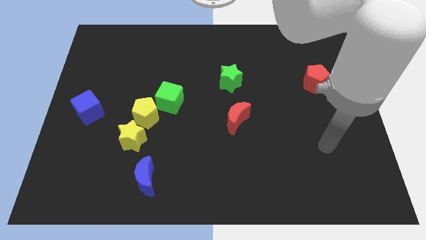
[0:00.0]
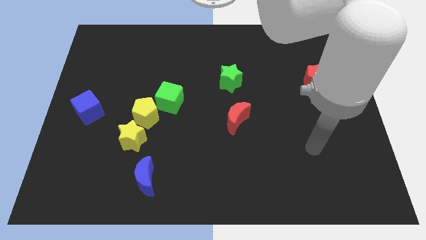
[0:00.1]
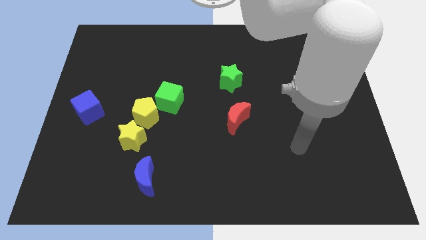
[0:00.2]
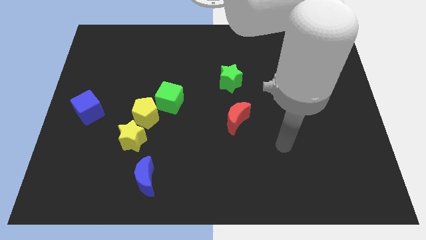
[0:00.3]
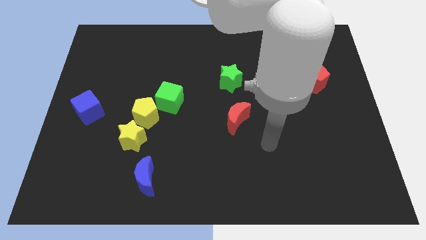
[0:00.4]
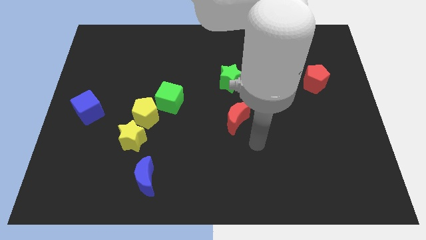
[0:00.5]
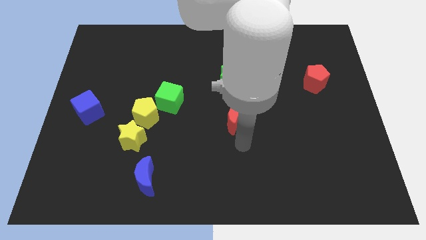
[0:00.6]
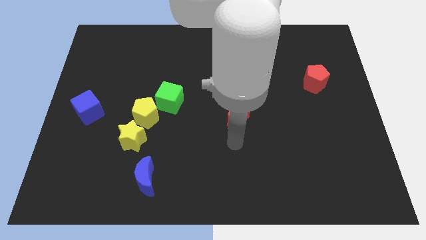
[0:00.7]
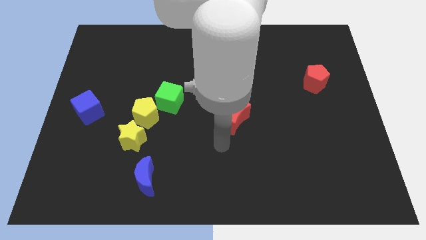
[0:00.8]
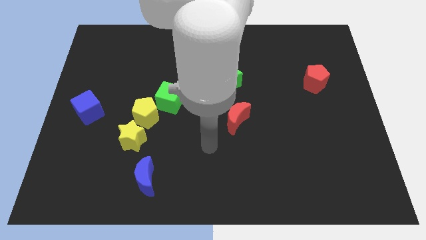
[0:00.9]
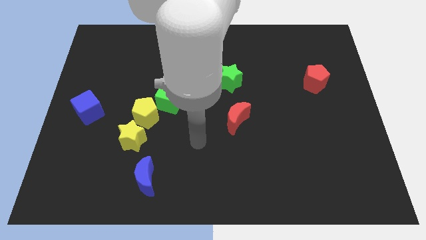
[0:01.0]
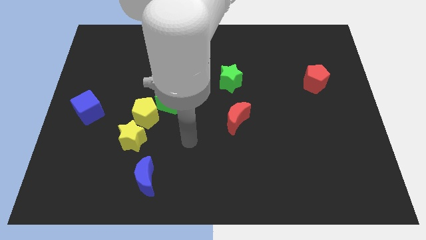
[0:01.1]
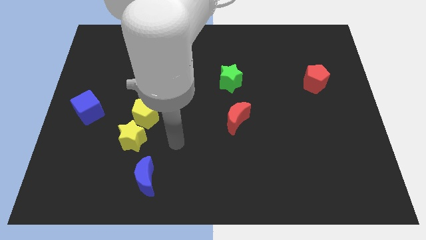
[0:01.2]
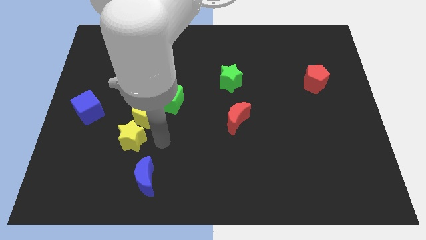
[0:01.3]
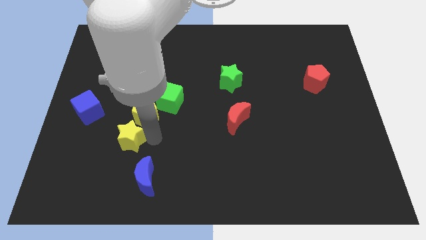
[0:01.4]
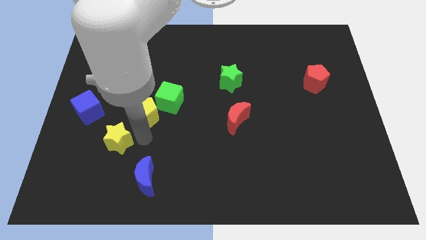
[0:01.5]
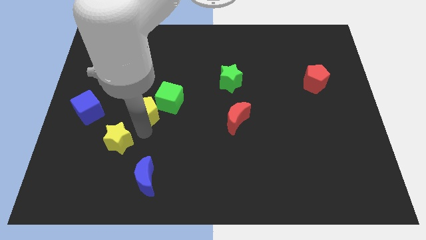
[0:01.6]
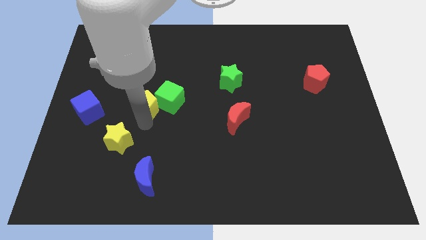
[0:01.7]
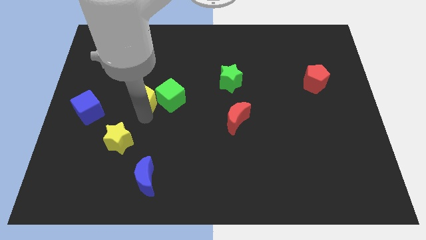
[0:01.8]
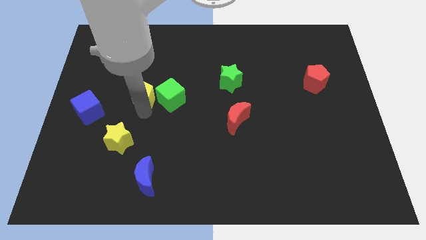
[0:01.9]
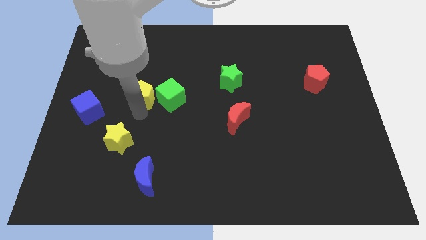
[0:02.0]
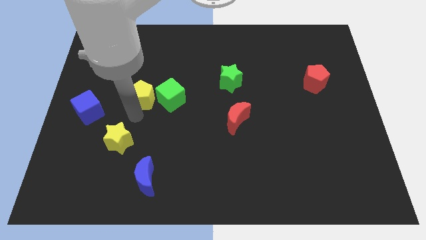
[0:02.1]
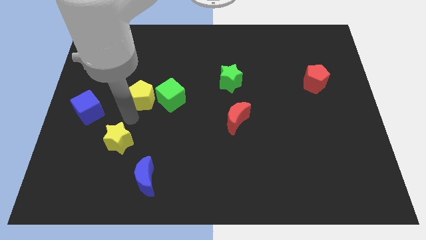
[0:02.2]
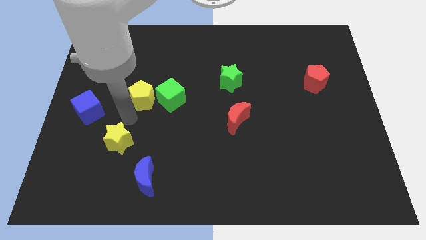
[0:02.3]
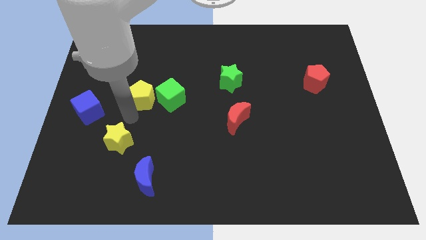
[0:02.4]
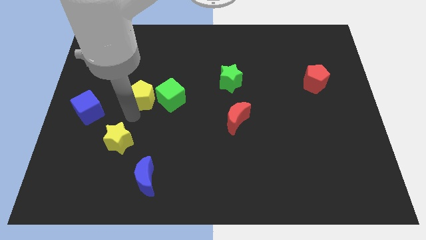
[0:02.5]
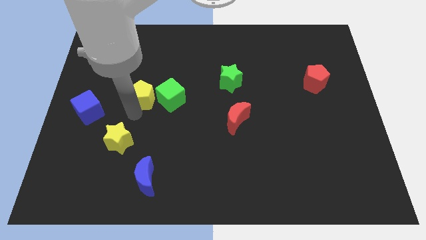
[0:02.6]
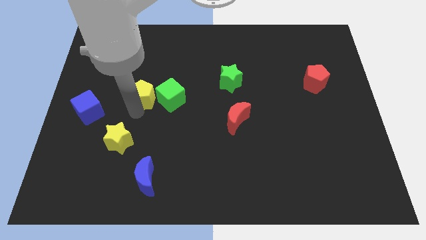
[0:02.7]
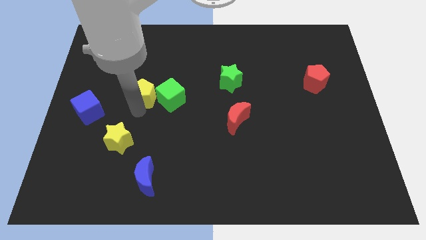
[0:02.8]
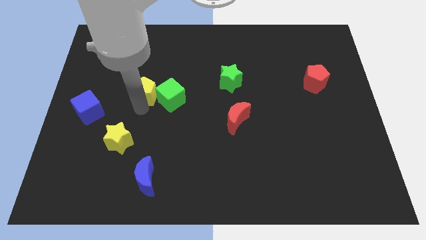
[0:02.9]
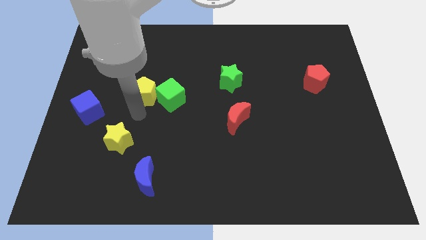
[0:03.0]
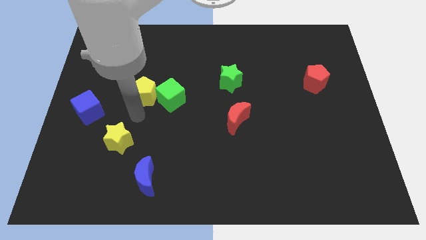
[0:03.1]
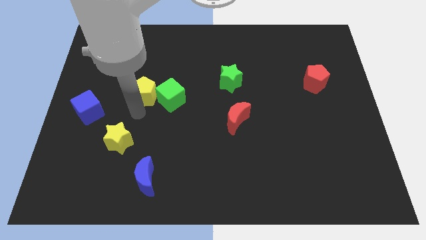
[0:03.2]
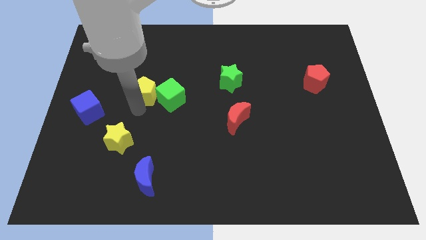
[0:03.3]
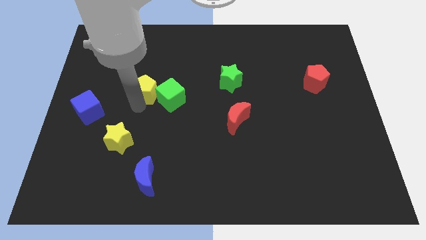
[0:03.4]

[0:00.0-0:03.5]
slide the yellow pentagon a little bit upwards

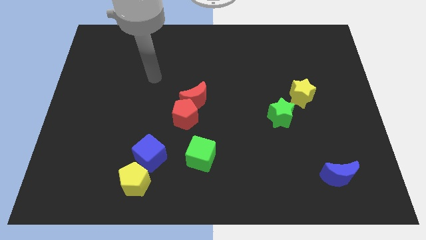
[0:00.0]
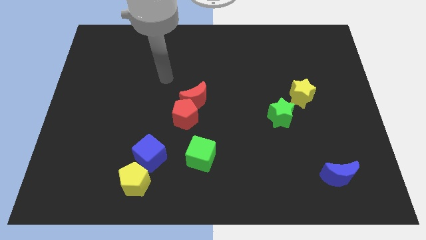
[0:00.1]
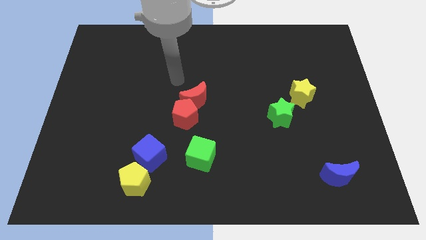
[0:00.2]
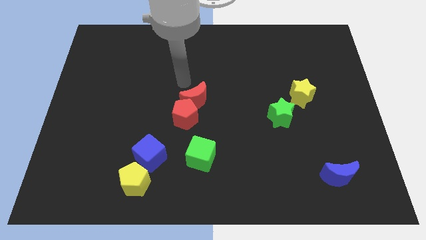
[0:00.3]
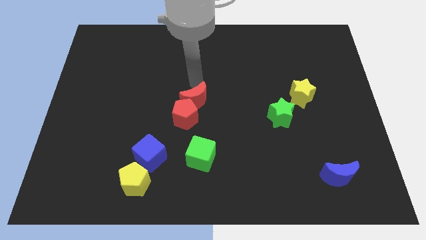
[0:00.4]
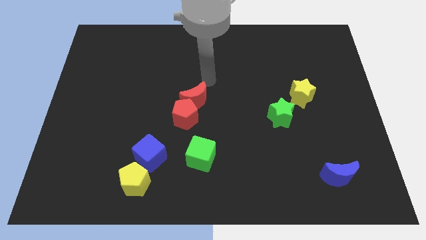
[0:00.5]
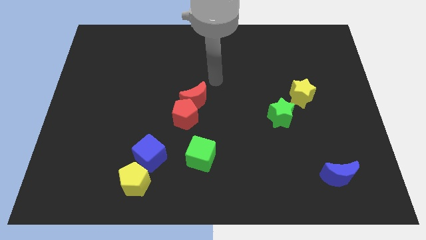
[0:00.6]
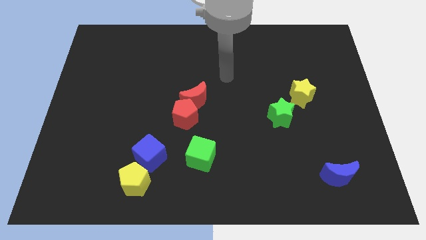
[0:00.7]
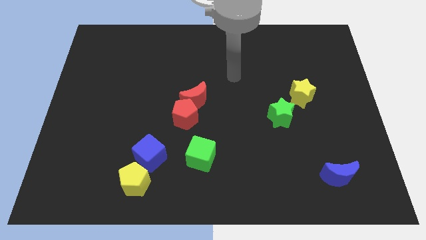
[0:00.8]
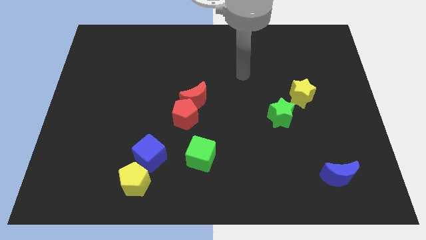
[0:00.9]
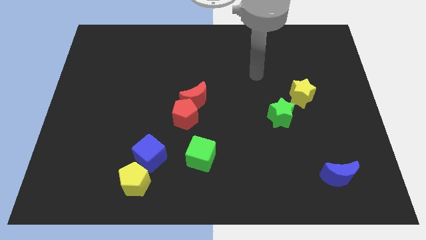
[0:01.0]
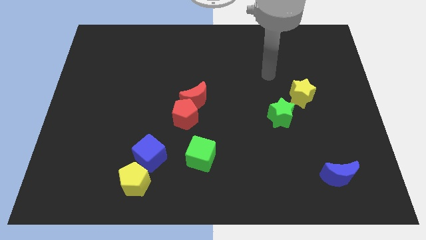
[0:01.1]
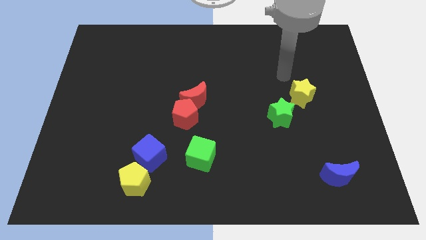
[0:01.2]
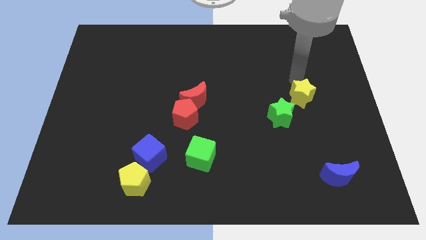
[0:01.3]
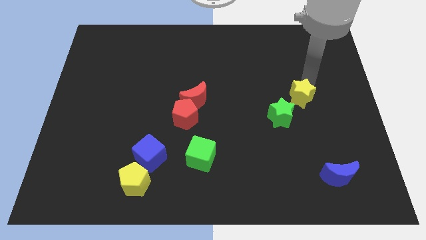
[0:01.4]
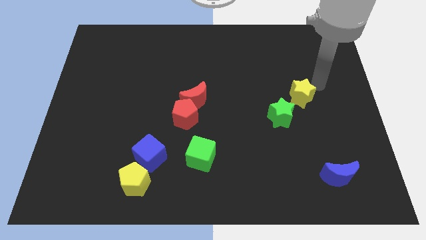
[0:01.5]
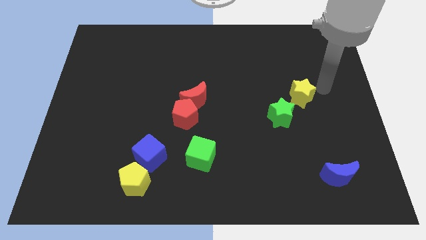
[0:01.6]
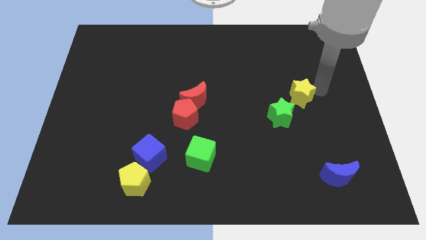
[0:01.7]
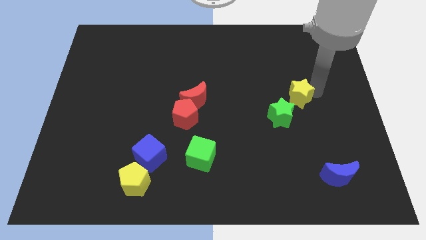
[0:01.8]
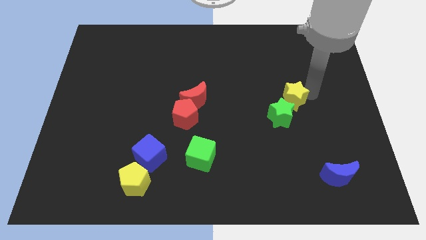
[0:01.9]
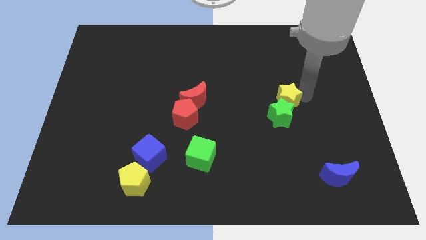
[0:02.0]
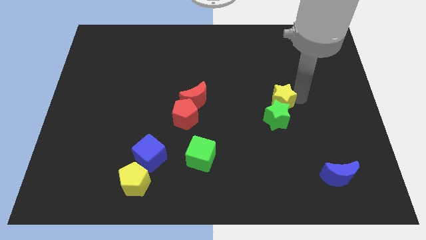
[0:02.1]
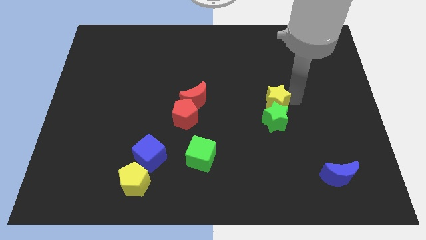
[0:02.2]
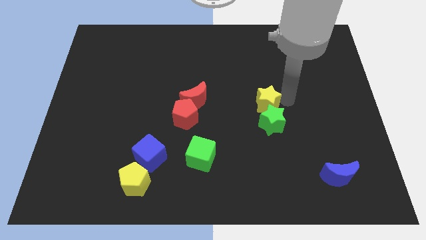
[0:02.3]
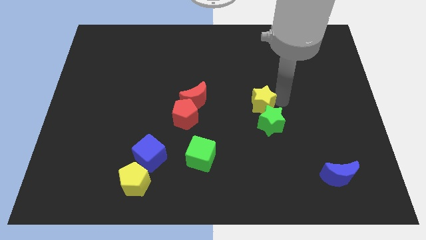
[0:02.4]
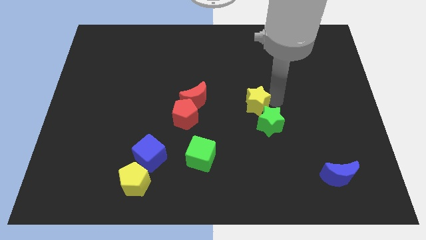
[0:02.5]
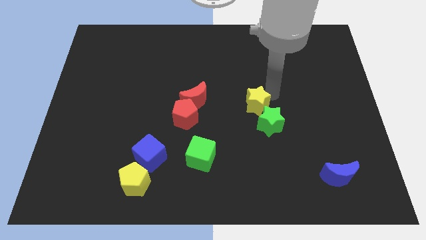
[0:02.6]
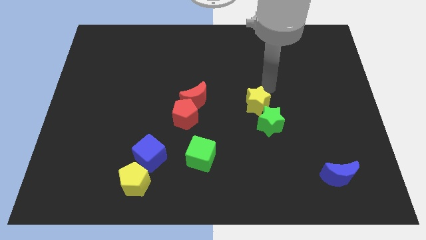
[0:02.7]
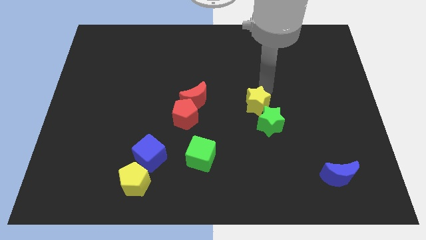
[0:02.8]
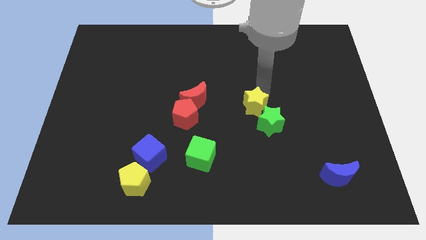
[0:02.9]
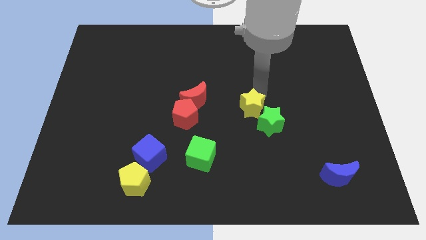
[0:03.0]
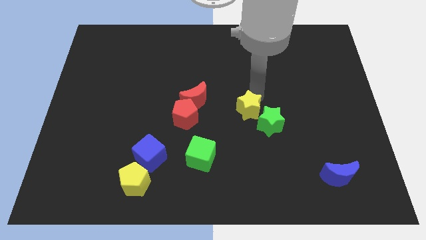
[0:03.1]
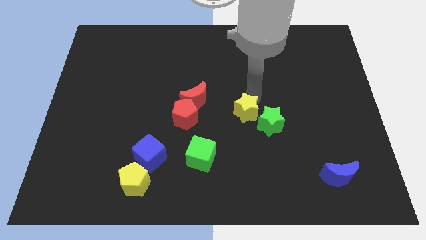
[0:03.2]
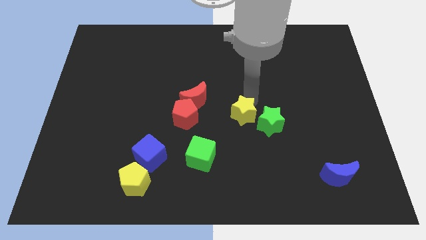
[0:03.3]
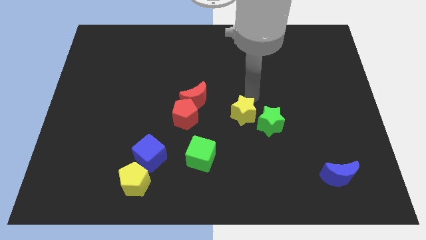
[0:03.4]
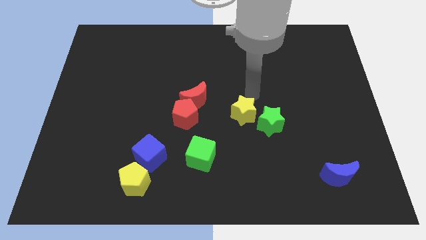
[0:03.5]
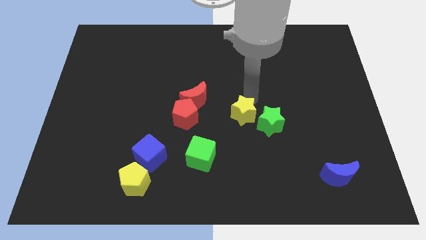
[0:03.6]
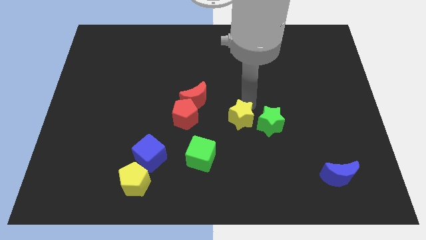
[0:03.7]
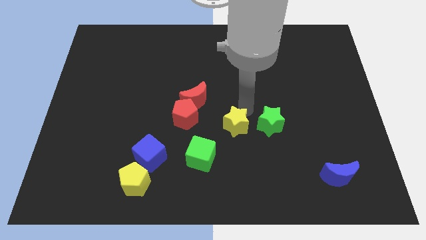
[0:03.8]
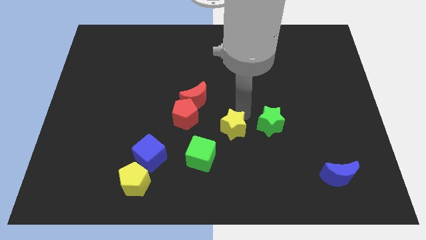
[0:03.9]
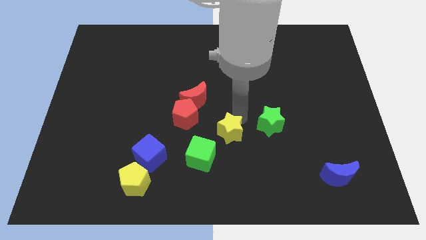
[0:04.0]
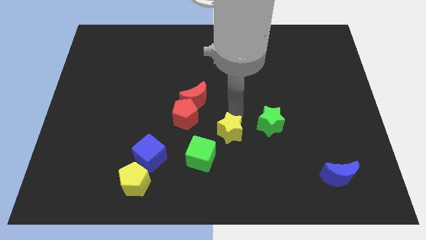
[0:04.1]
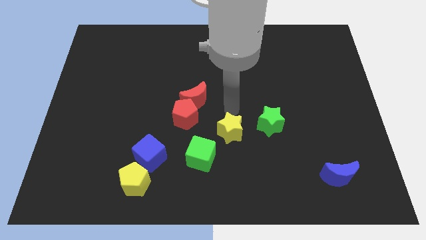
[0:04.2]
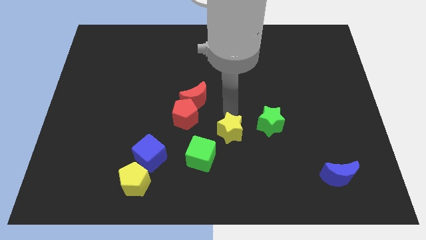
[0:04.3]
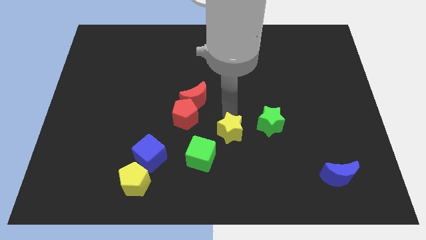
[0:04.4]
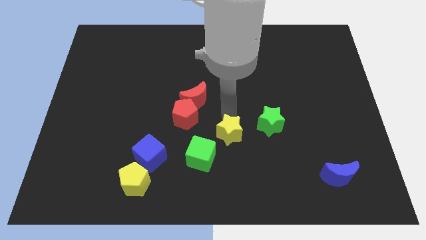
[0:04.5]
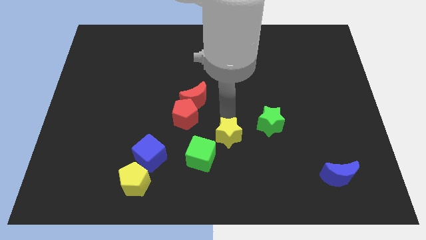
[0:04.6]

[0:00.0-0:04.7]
slide the yellow star down and then left
